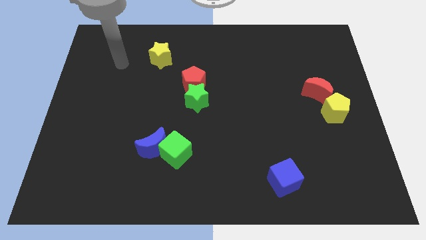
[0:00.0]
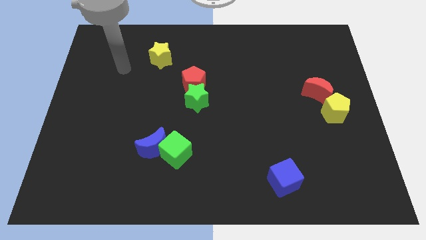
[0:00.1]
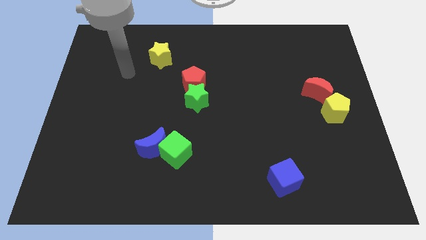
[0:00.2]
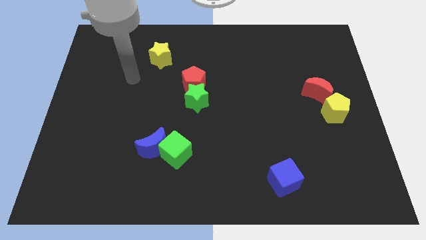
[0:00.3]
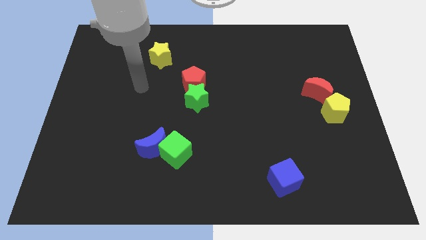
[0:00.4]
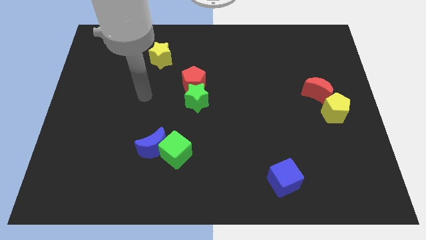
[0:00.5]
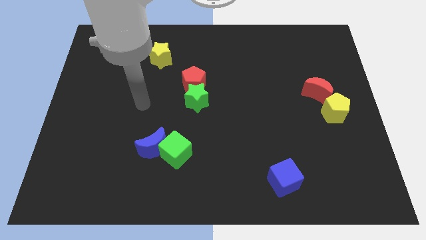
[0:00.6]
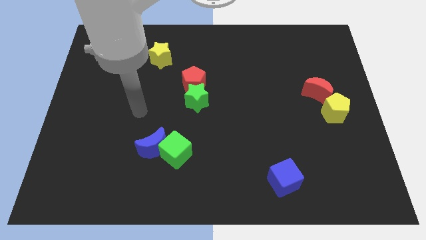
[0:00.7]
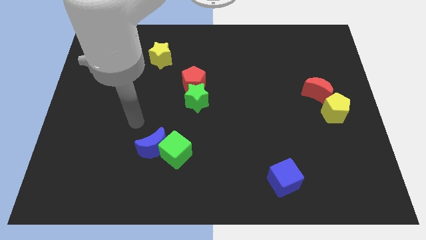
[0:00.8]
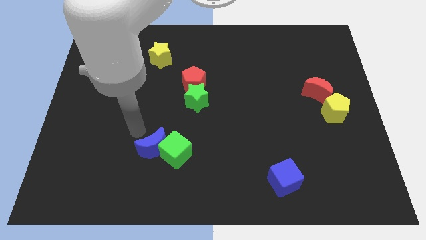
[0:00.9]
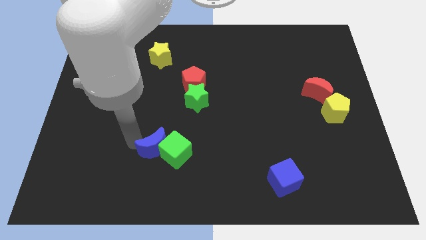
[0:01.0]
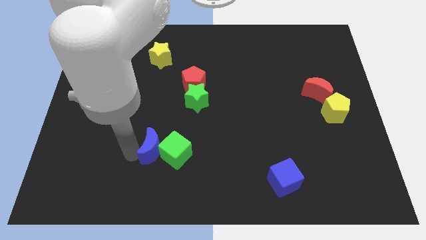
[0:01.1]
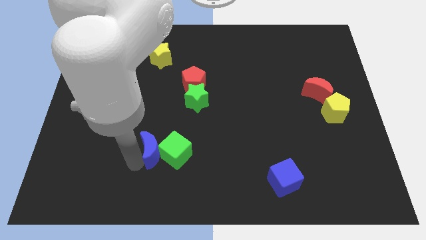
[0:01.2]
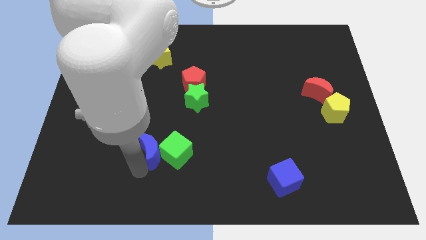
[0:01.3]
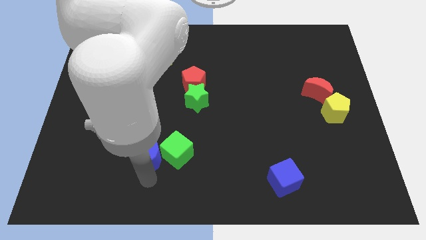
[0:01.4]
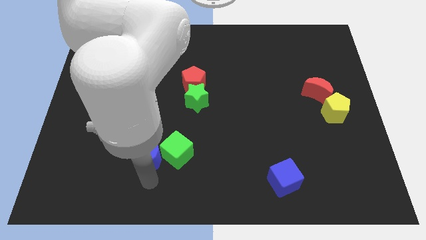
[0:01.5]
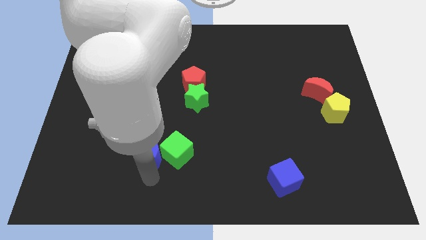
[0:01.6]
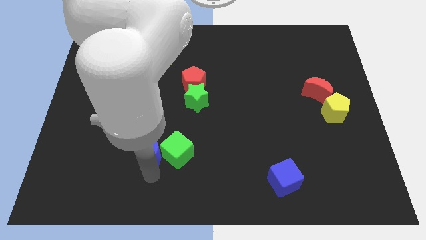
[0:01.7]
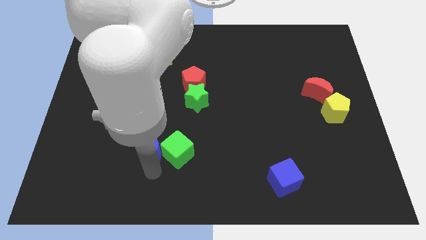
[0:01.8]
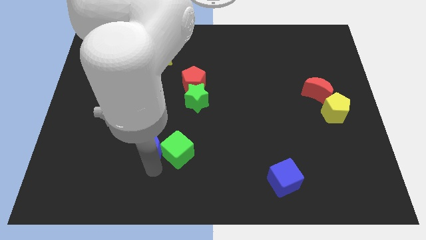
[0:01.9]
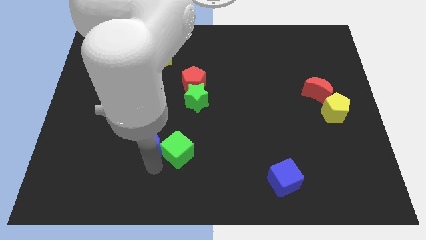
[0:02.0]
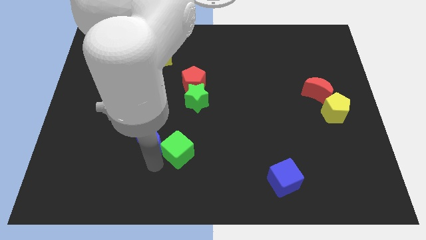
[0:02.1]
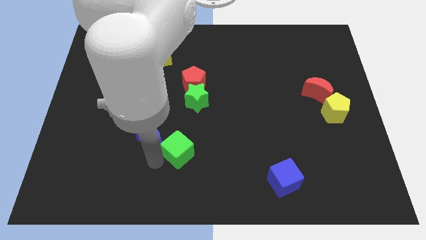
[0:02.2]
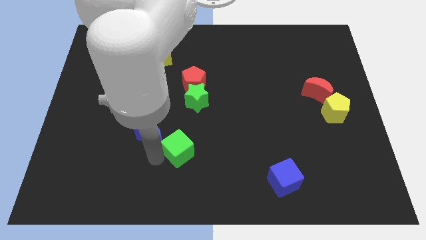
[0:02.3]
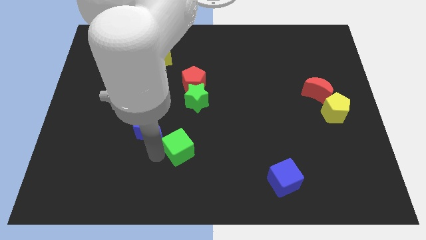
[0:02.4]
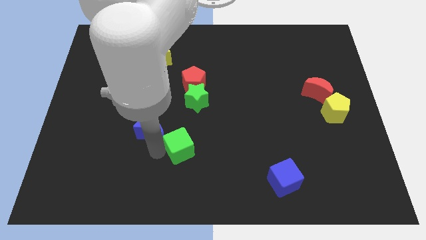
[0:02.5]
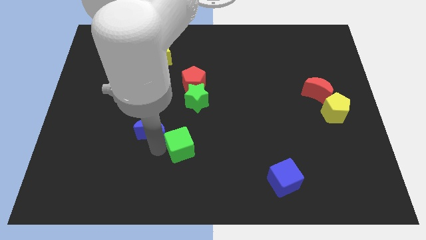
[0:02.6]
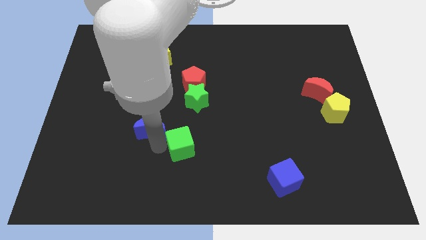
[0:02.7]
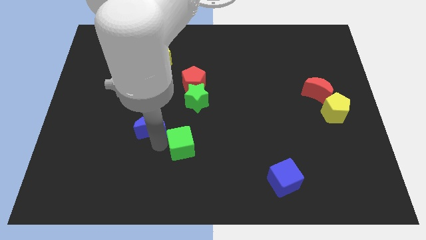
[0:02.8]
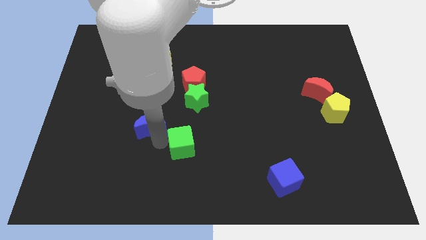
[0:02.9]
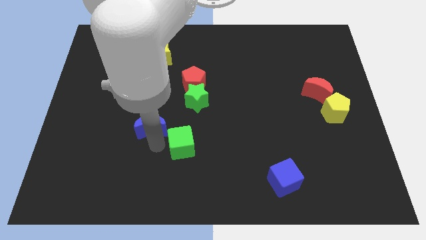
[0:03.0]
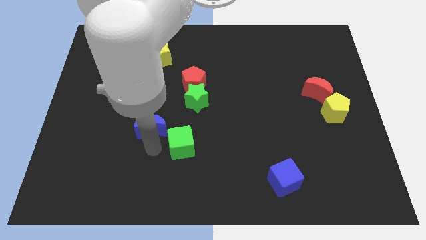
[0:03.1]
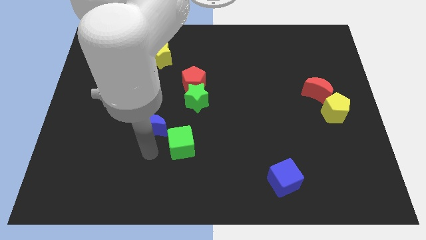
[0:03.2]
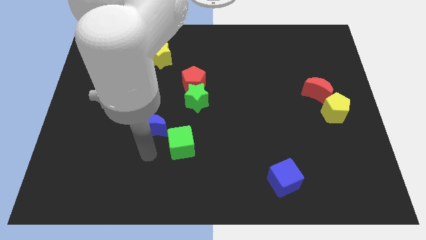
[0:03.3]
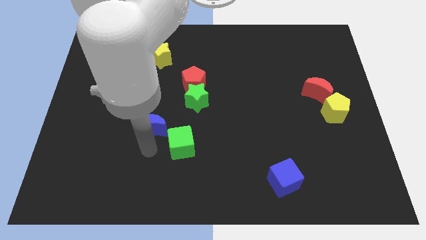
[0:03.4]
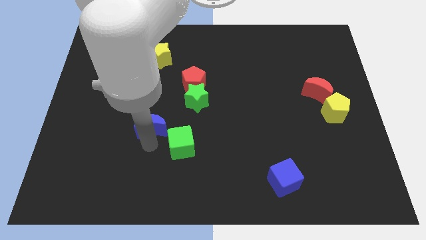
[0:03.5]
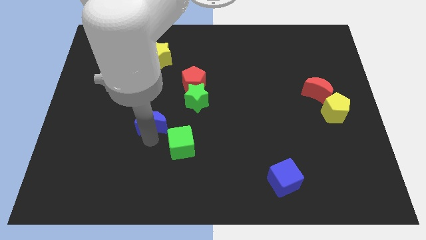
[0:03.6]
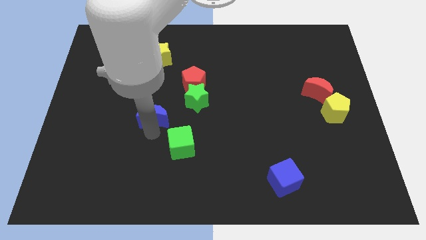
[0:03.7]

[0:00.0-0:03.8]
slide the blue moon upwards slightly

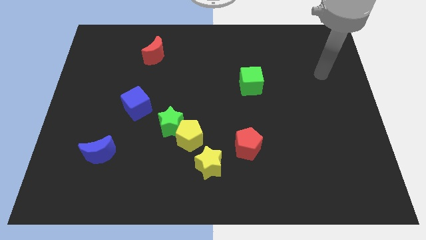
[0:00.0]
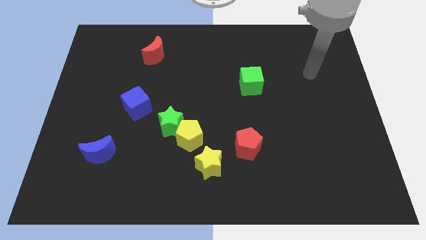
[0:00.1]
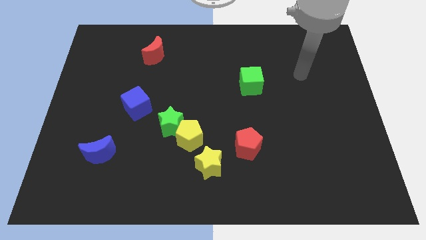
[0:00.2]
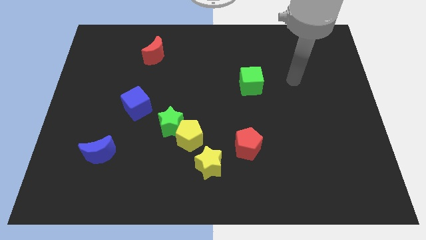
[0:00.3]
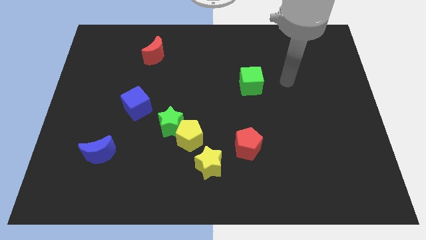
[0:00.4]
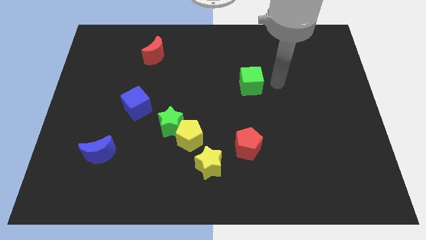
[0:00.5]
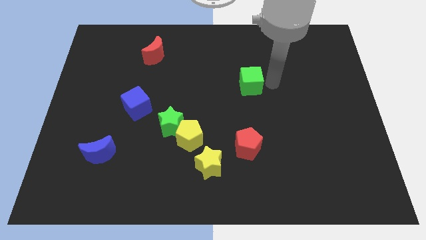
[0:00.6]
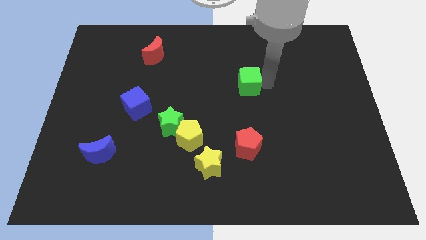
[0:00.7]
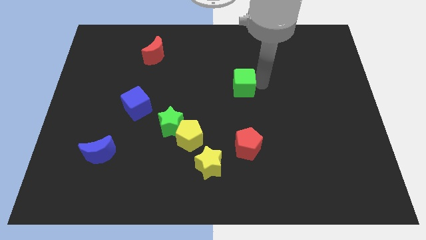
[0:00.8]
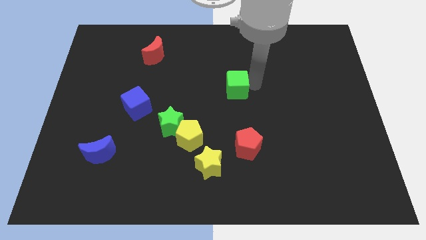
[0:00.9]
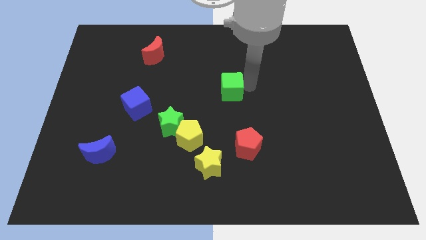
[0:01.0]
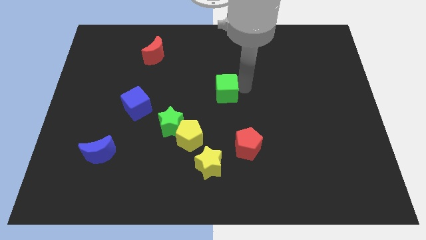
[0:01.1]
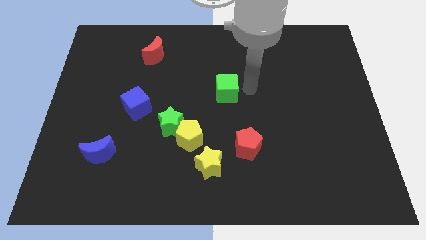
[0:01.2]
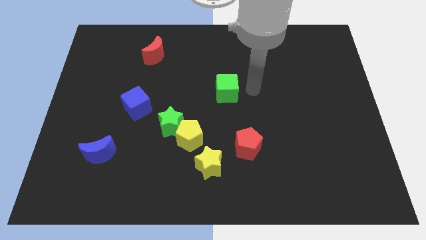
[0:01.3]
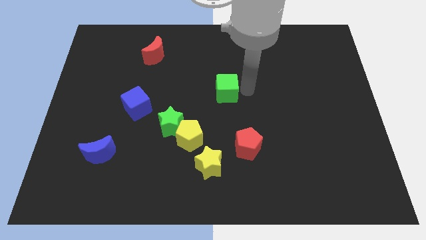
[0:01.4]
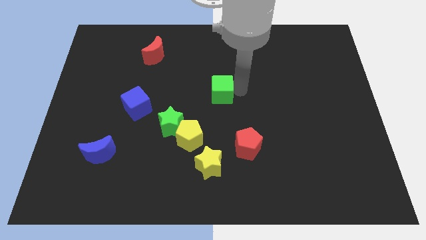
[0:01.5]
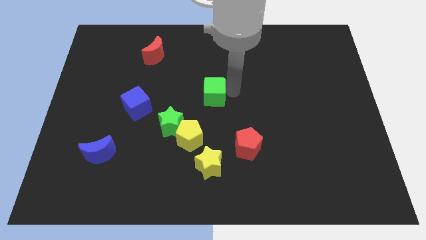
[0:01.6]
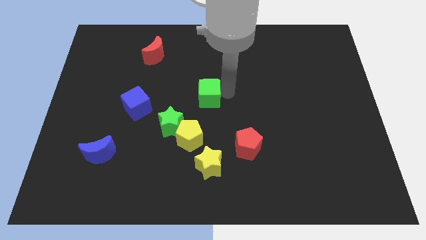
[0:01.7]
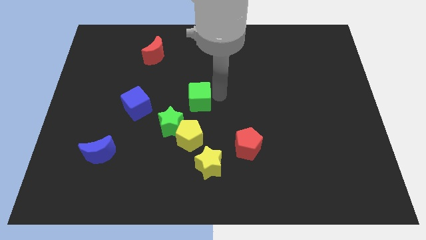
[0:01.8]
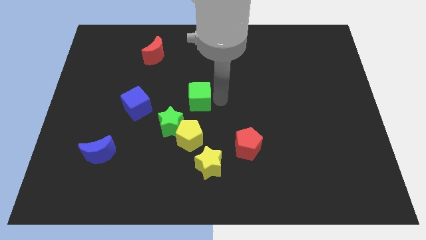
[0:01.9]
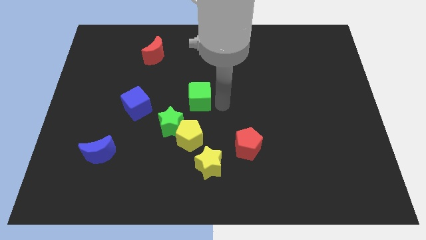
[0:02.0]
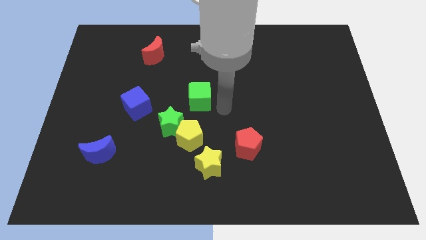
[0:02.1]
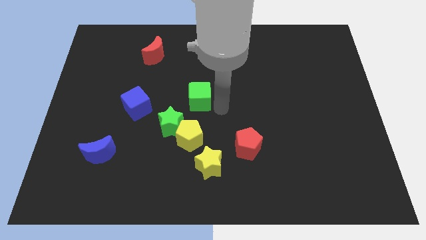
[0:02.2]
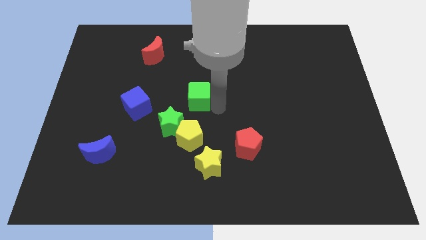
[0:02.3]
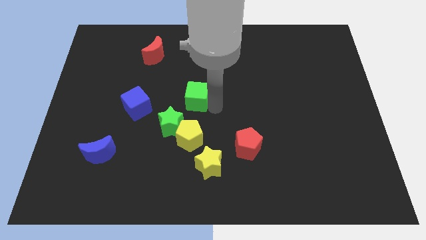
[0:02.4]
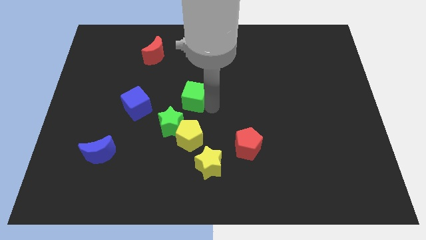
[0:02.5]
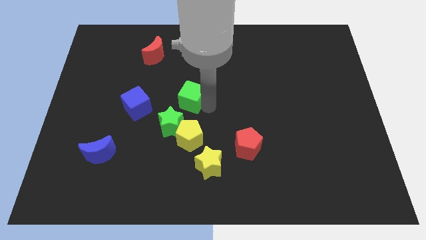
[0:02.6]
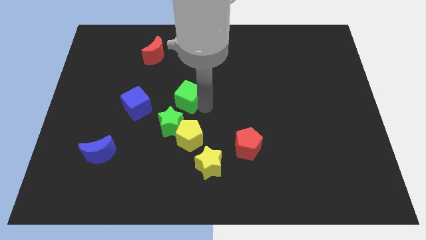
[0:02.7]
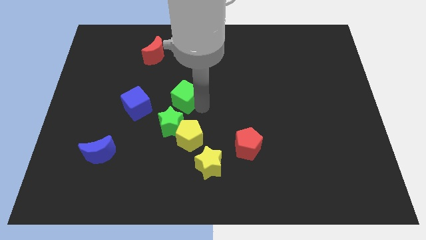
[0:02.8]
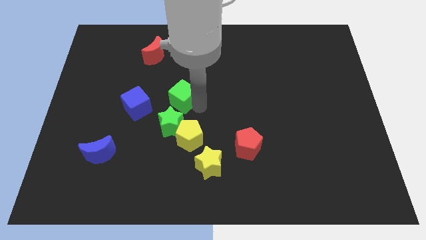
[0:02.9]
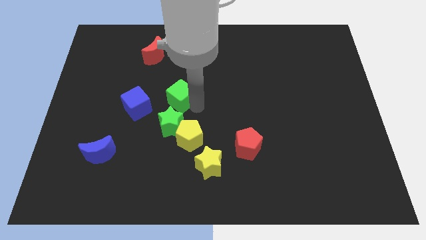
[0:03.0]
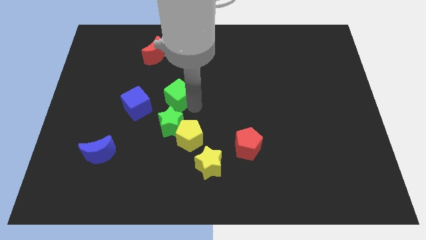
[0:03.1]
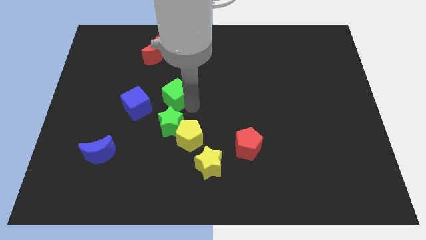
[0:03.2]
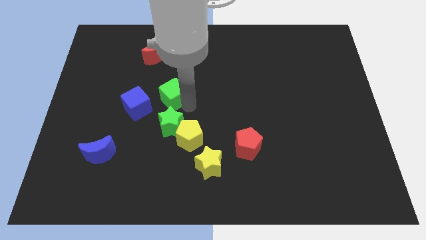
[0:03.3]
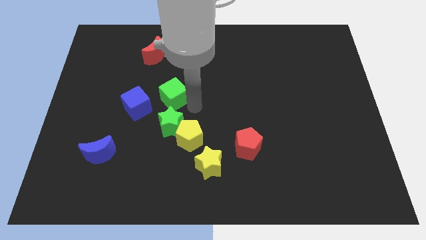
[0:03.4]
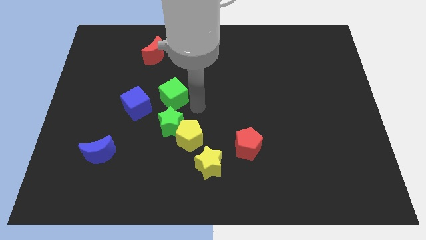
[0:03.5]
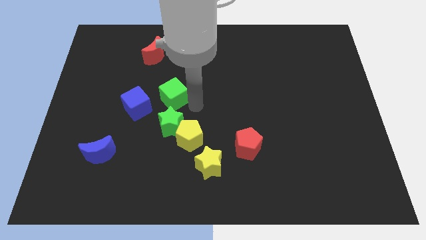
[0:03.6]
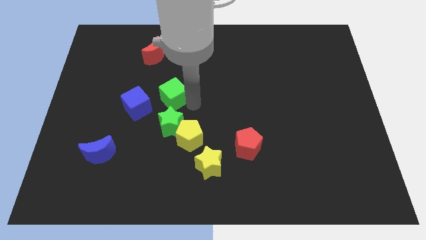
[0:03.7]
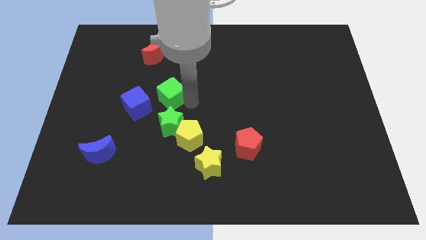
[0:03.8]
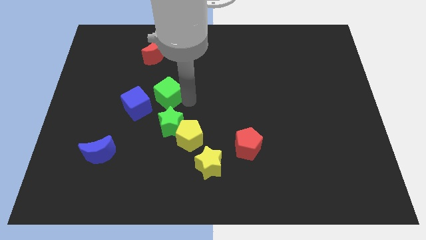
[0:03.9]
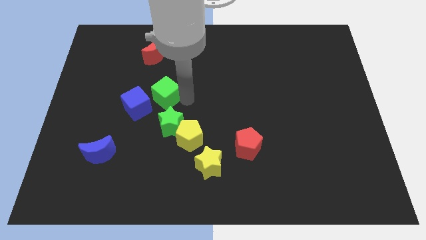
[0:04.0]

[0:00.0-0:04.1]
move the green cube to the left

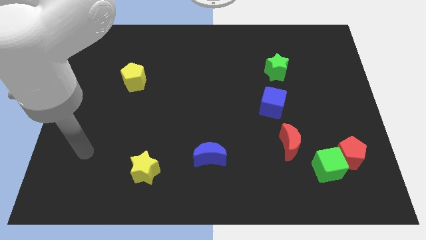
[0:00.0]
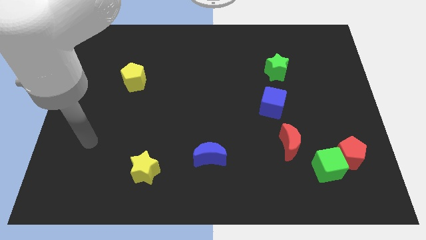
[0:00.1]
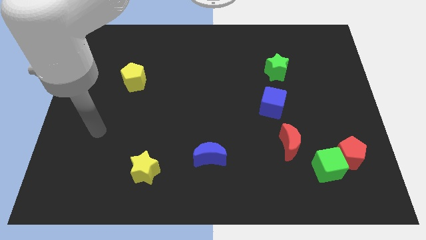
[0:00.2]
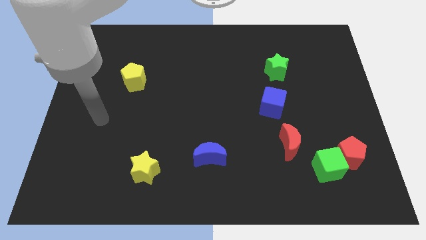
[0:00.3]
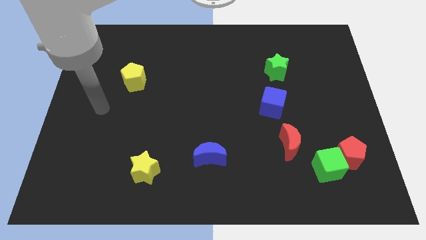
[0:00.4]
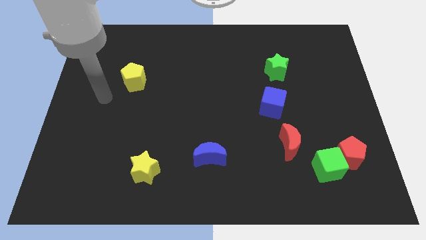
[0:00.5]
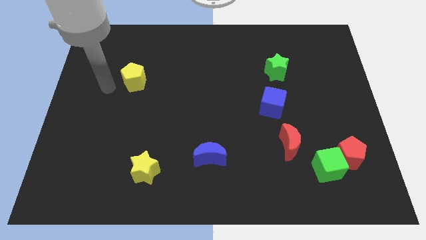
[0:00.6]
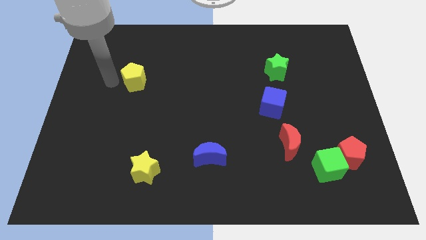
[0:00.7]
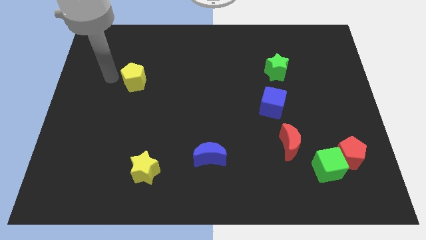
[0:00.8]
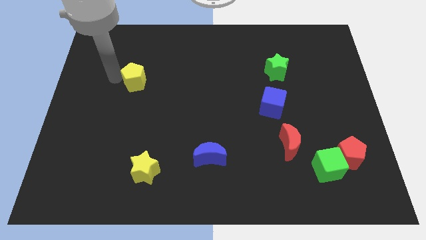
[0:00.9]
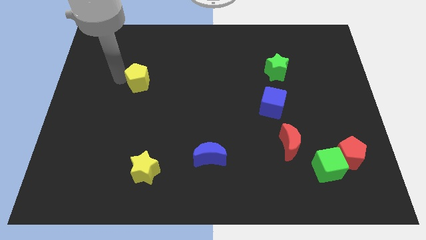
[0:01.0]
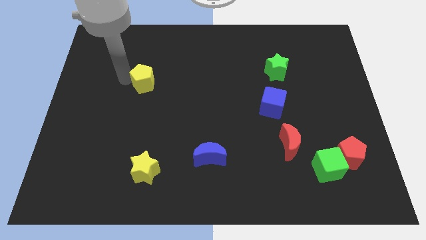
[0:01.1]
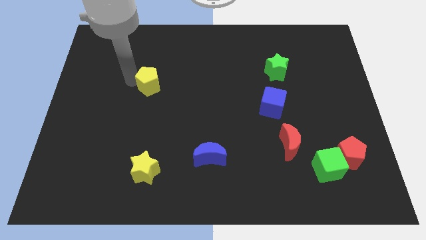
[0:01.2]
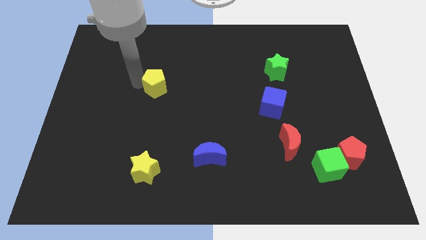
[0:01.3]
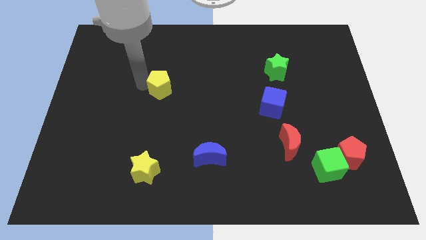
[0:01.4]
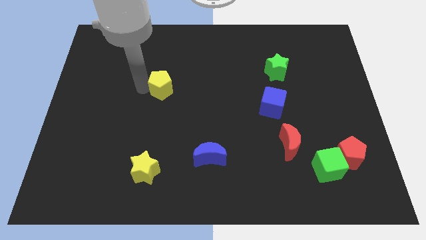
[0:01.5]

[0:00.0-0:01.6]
move the yellow pentagon a bit to the right
